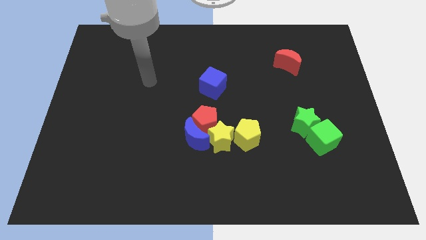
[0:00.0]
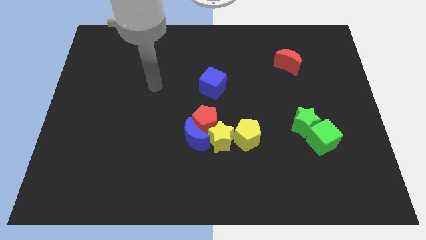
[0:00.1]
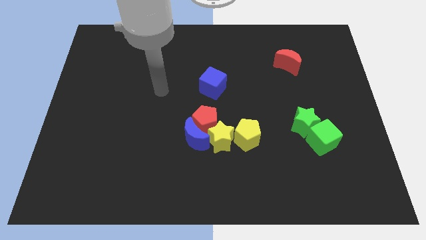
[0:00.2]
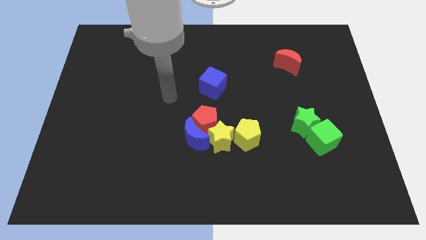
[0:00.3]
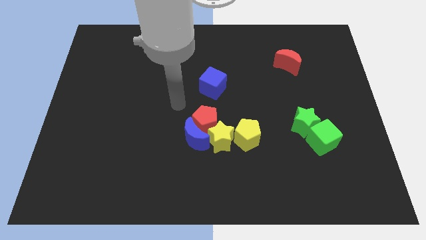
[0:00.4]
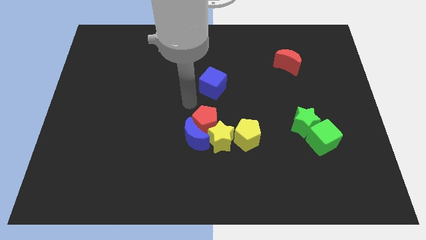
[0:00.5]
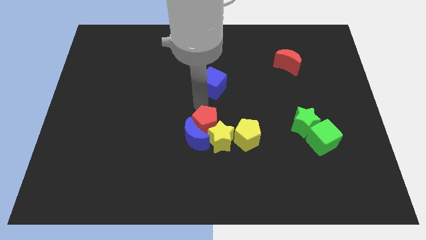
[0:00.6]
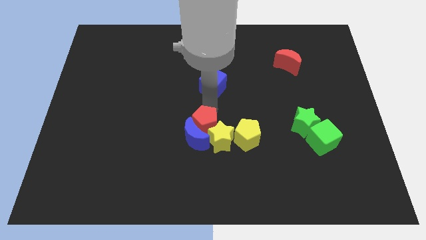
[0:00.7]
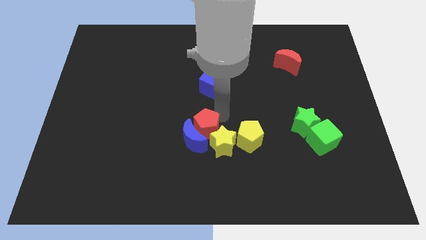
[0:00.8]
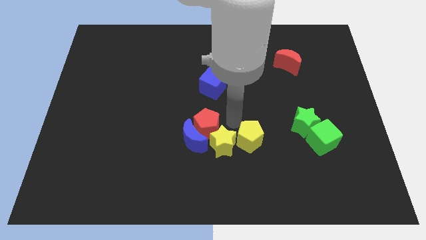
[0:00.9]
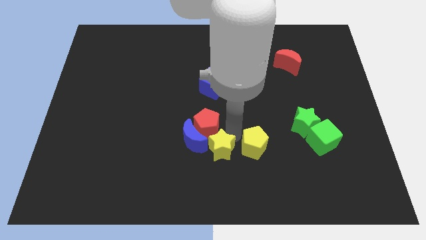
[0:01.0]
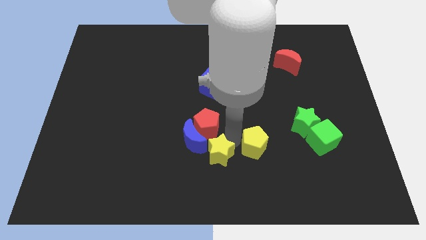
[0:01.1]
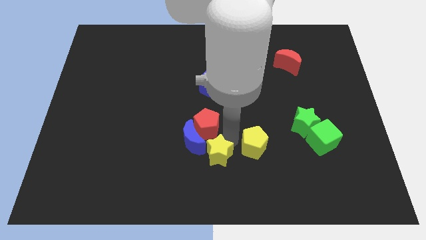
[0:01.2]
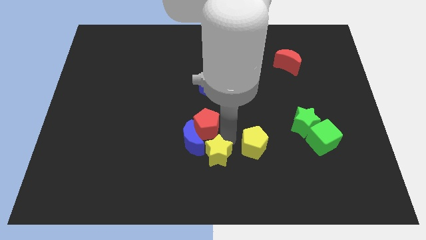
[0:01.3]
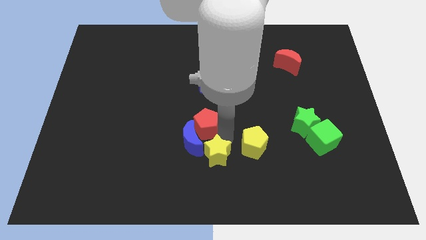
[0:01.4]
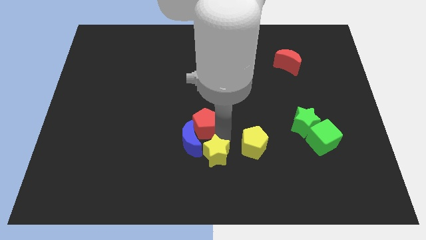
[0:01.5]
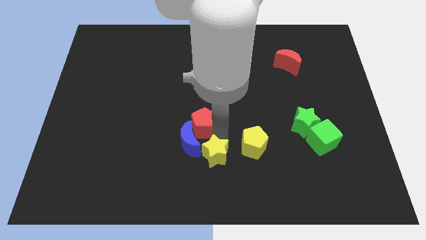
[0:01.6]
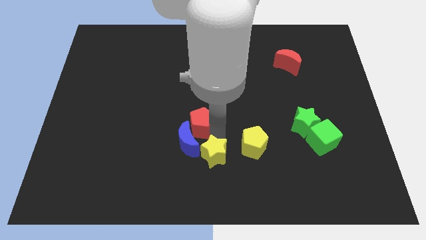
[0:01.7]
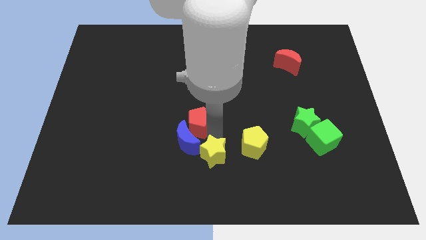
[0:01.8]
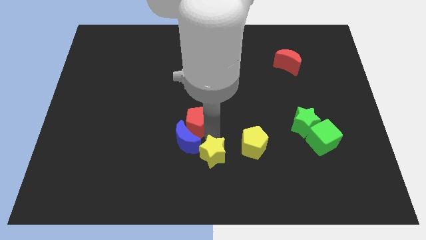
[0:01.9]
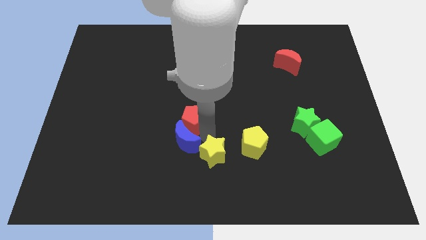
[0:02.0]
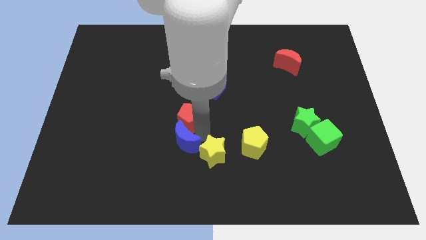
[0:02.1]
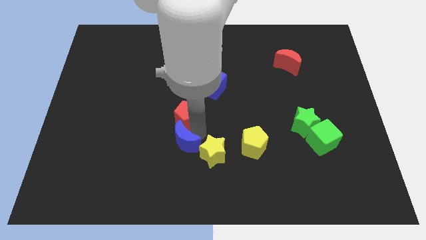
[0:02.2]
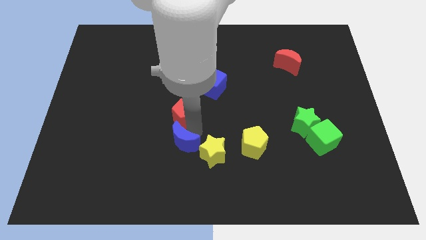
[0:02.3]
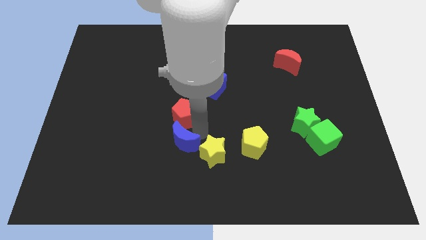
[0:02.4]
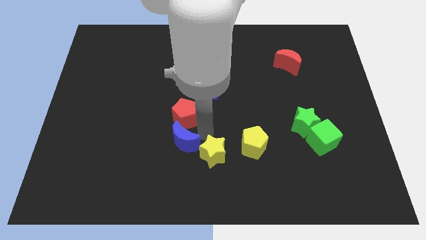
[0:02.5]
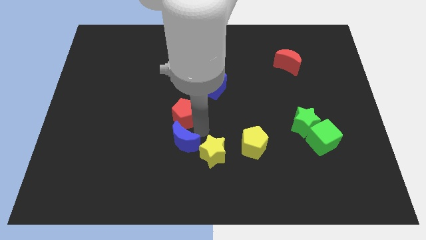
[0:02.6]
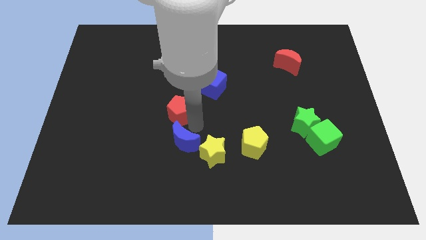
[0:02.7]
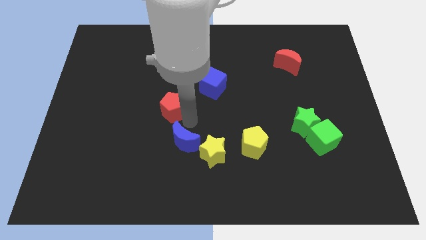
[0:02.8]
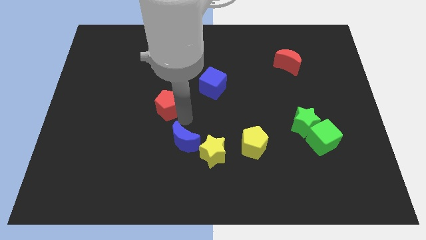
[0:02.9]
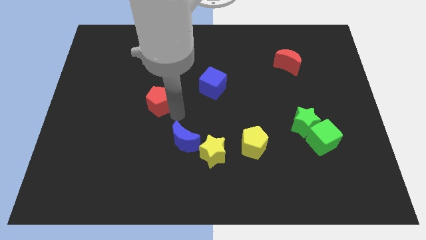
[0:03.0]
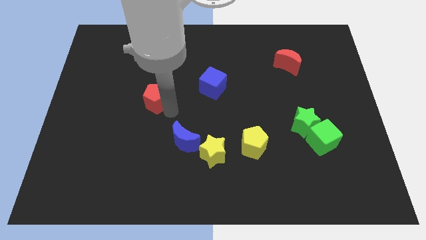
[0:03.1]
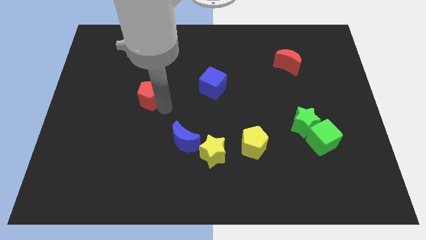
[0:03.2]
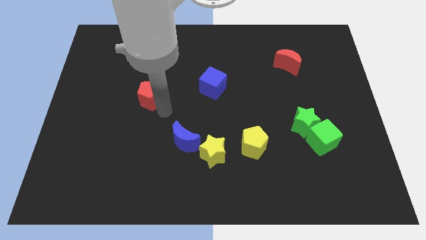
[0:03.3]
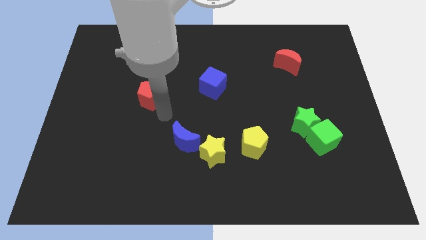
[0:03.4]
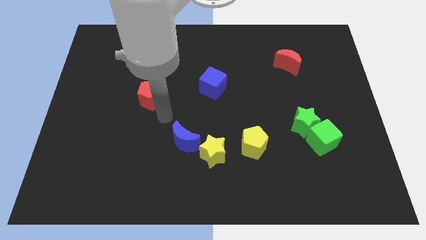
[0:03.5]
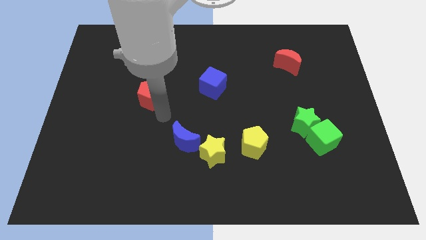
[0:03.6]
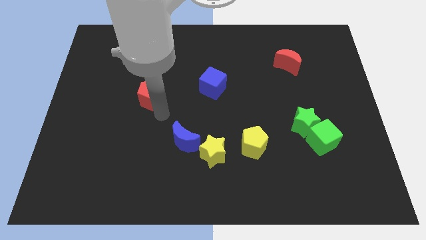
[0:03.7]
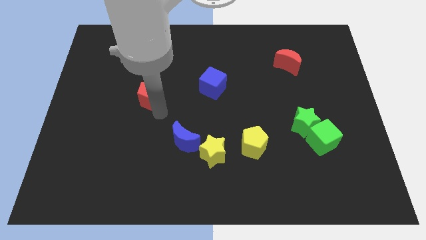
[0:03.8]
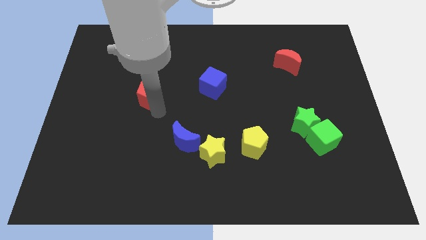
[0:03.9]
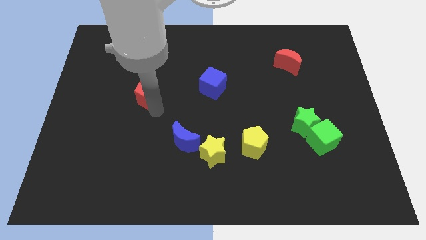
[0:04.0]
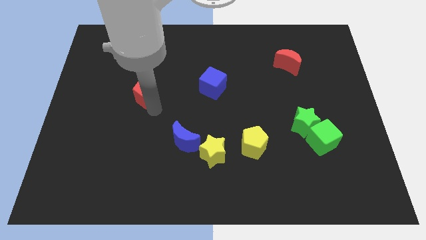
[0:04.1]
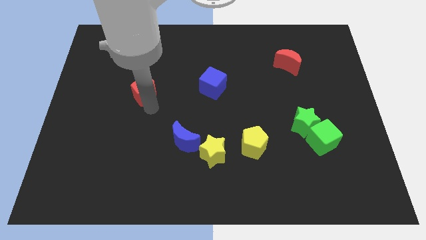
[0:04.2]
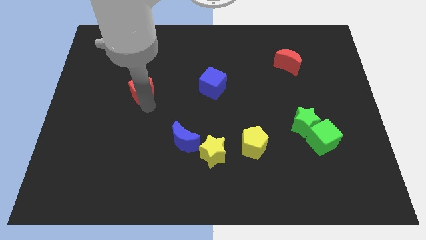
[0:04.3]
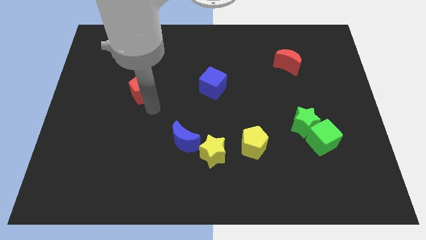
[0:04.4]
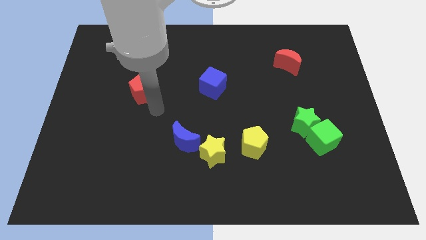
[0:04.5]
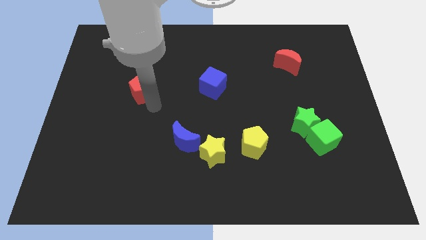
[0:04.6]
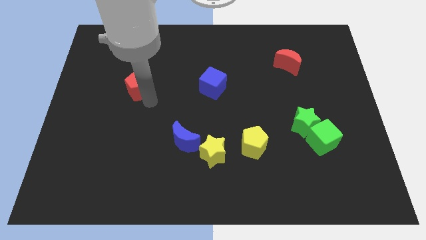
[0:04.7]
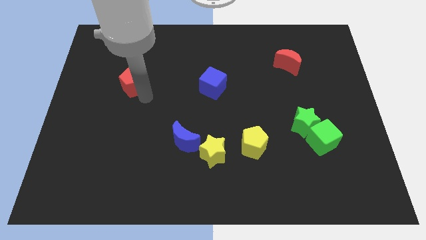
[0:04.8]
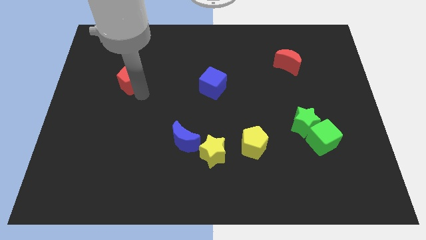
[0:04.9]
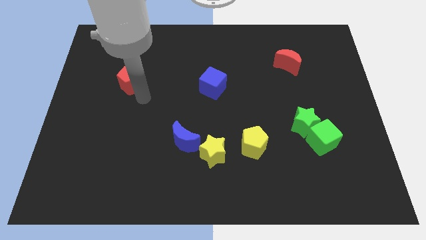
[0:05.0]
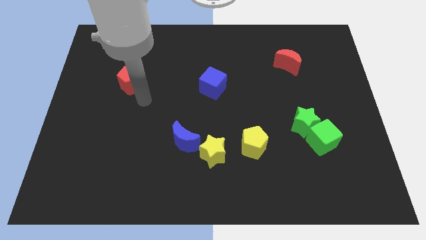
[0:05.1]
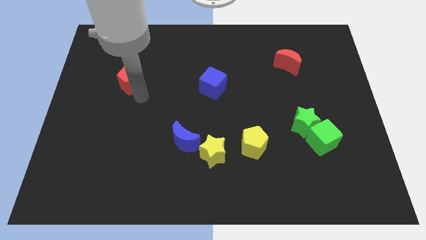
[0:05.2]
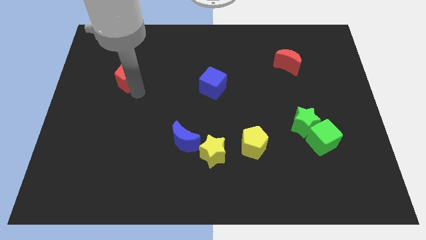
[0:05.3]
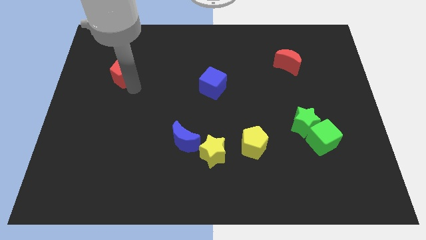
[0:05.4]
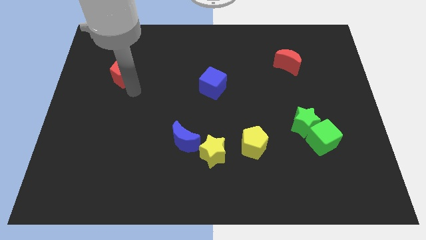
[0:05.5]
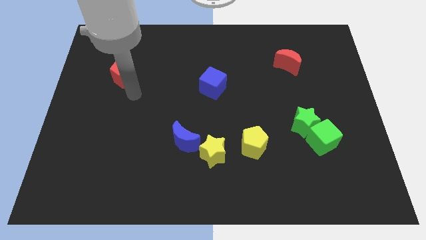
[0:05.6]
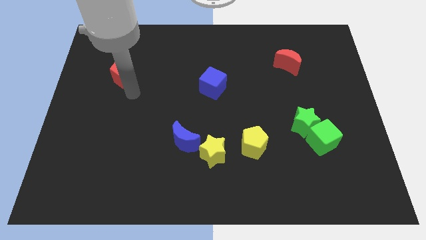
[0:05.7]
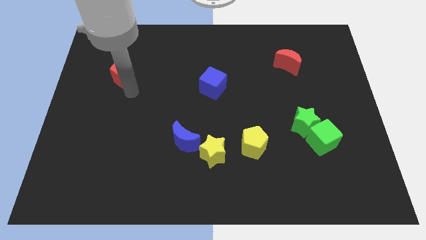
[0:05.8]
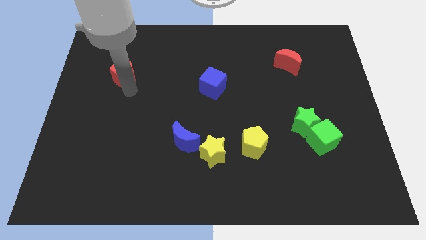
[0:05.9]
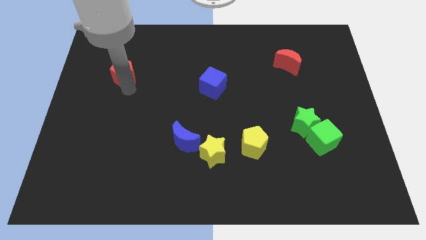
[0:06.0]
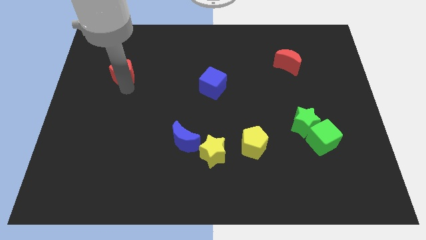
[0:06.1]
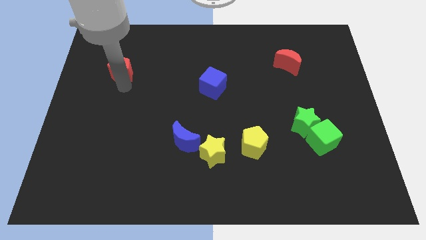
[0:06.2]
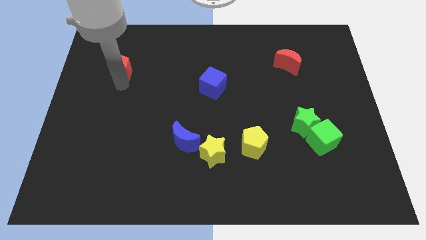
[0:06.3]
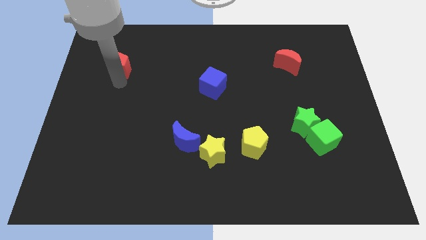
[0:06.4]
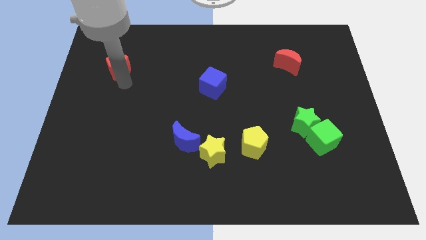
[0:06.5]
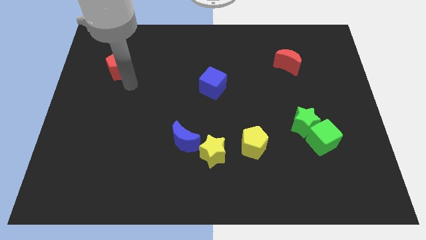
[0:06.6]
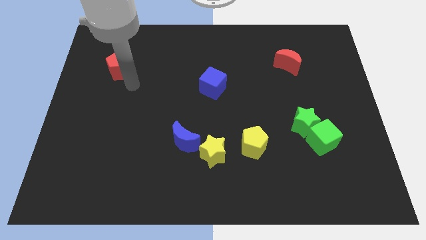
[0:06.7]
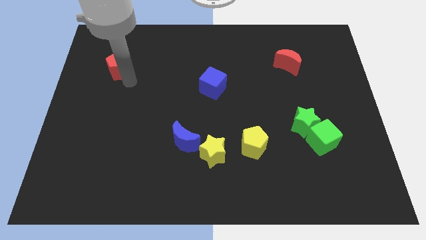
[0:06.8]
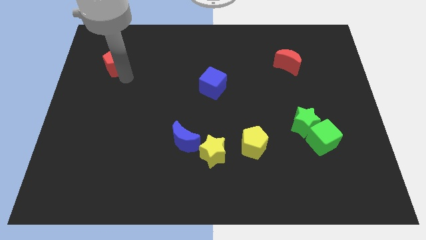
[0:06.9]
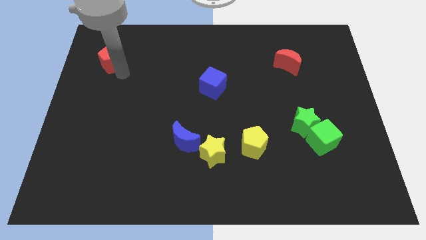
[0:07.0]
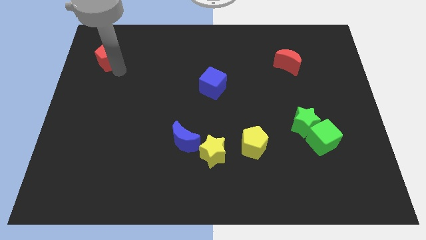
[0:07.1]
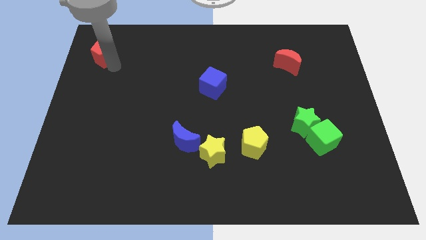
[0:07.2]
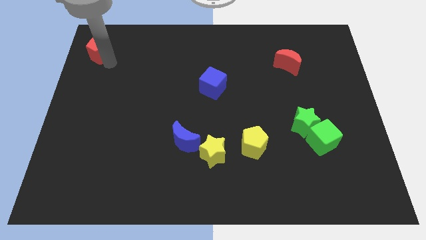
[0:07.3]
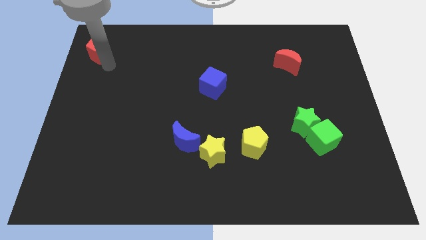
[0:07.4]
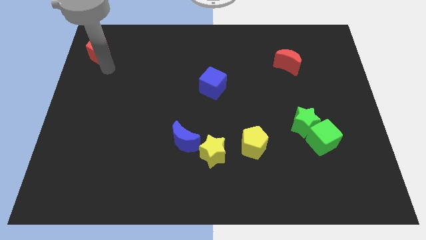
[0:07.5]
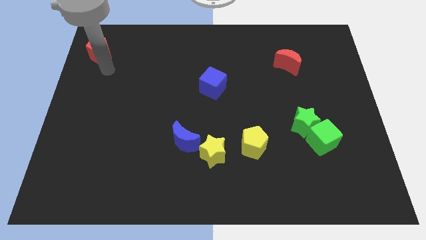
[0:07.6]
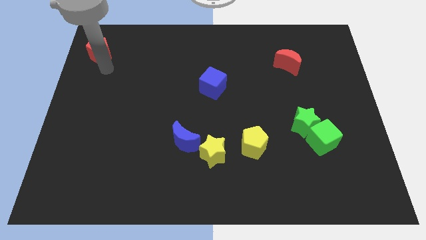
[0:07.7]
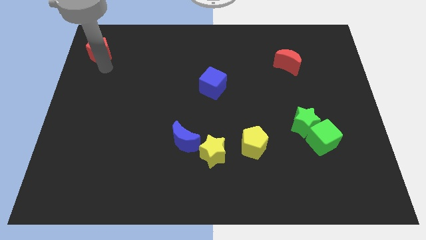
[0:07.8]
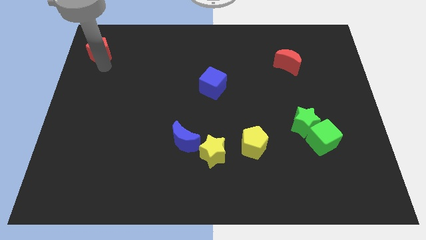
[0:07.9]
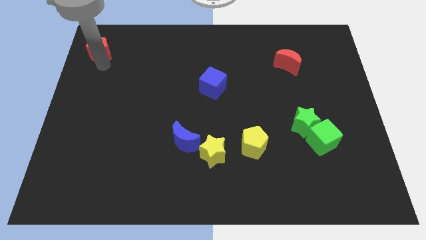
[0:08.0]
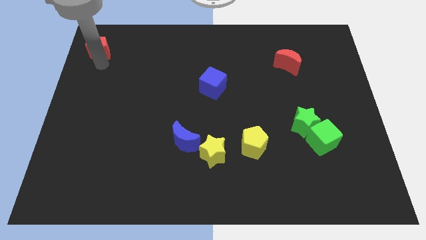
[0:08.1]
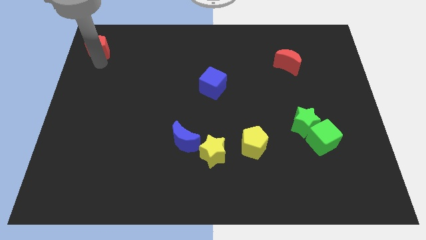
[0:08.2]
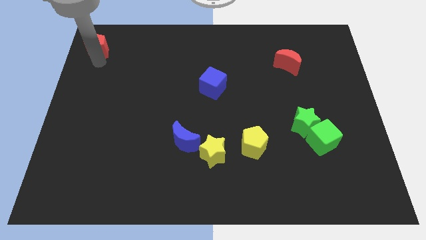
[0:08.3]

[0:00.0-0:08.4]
move the red pentagon to the upper left corner
